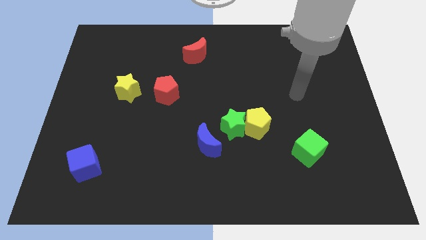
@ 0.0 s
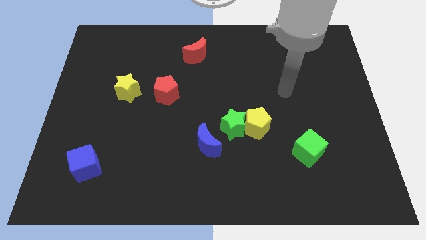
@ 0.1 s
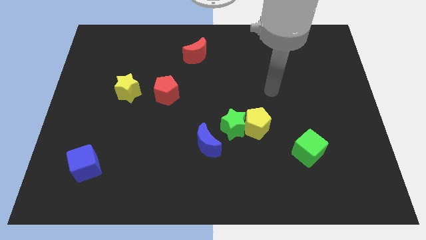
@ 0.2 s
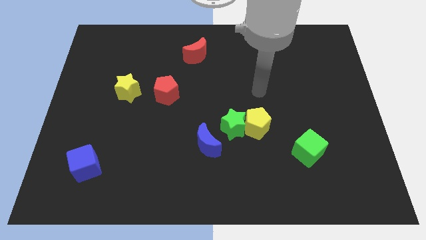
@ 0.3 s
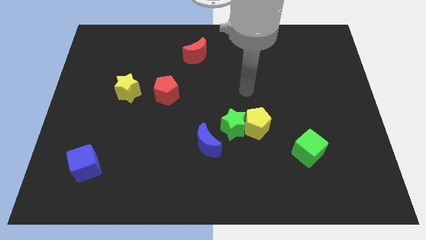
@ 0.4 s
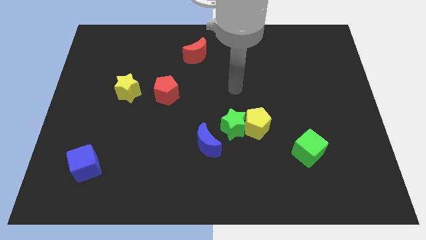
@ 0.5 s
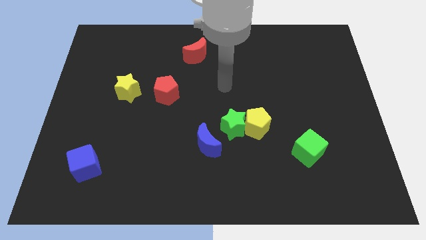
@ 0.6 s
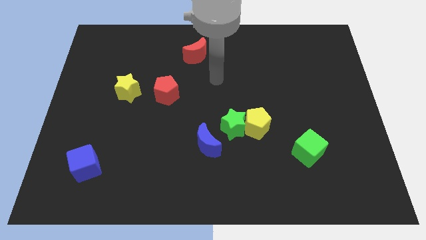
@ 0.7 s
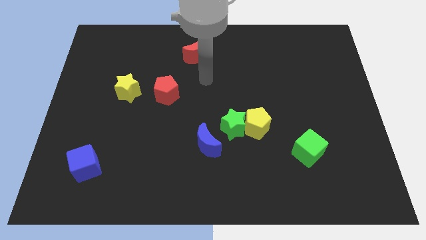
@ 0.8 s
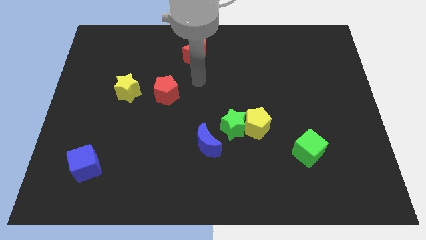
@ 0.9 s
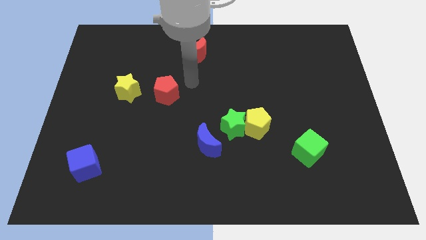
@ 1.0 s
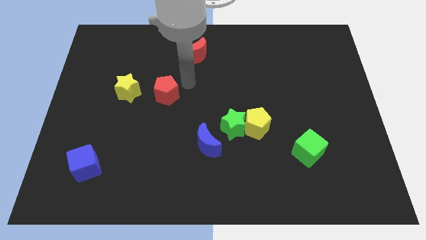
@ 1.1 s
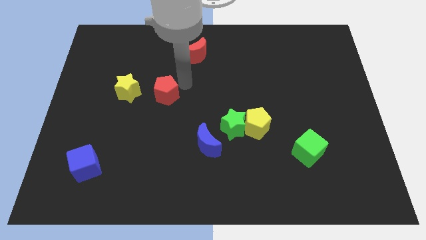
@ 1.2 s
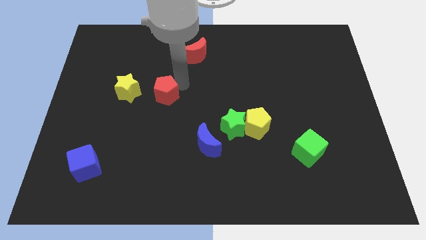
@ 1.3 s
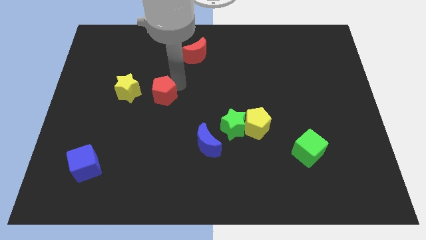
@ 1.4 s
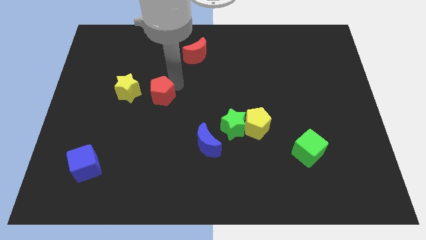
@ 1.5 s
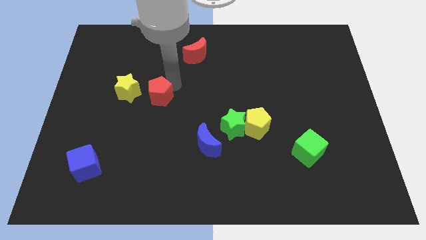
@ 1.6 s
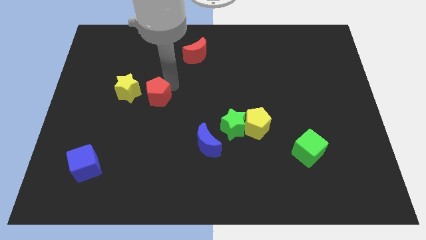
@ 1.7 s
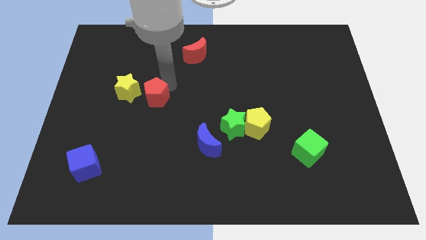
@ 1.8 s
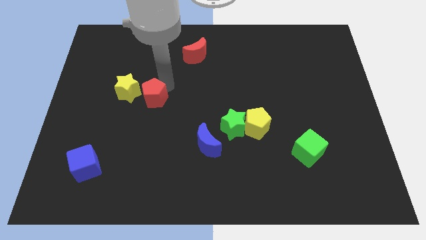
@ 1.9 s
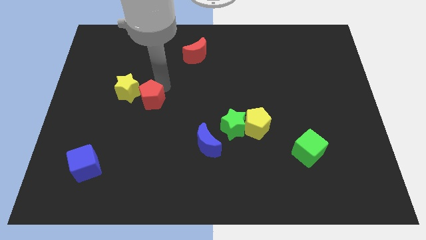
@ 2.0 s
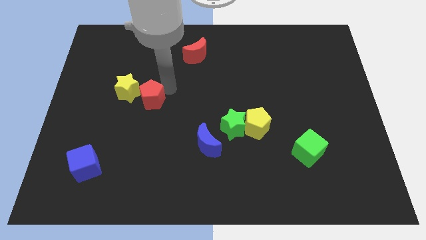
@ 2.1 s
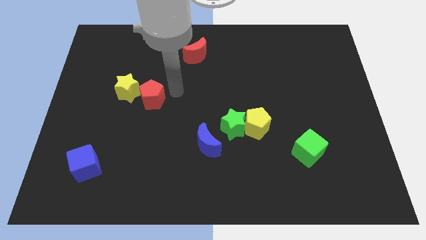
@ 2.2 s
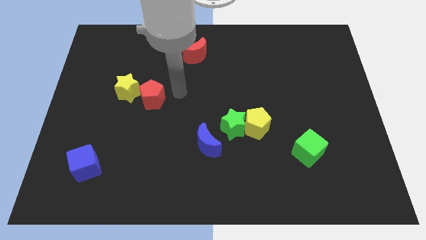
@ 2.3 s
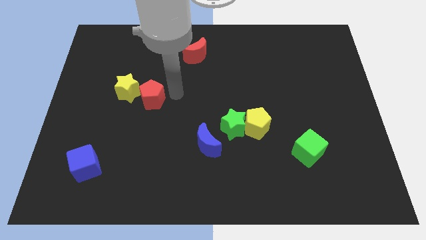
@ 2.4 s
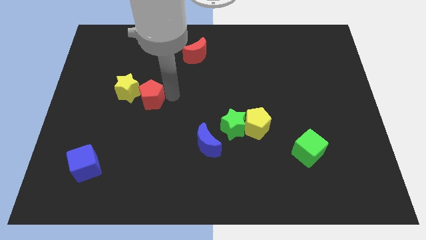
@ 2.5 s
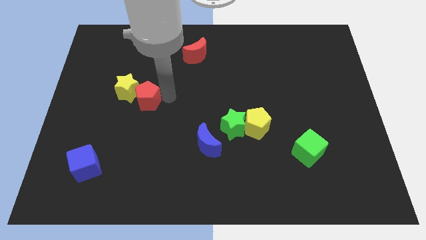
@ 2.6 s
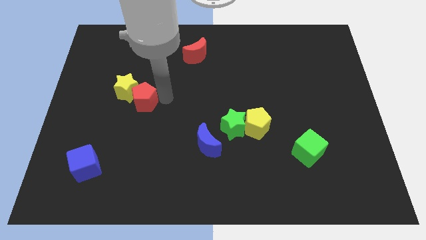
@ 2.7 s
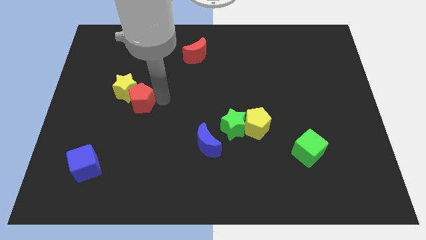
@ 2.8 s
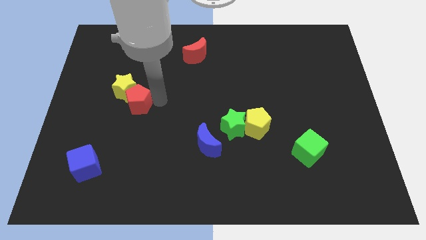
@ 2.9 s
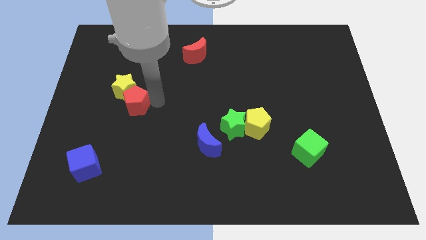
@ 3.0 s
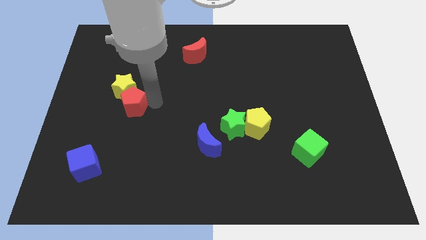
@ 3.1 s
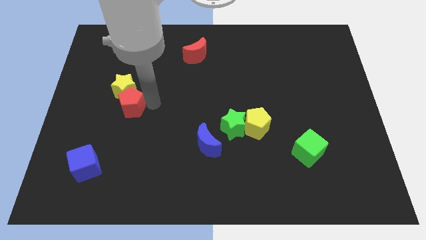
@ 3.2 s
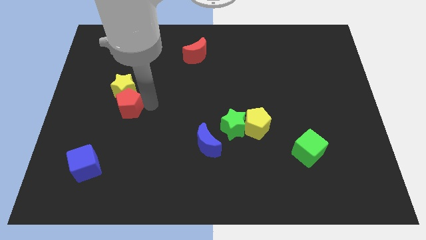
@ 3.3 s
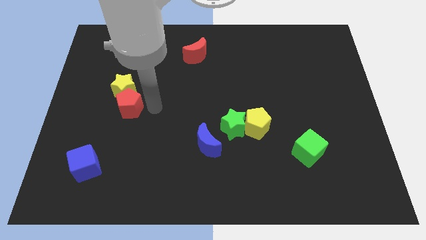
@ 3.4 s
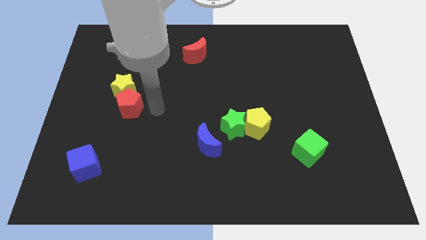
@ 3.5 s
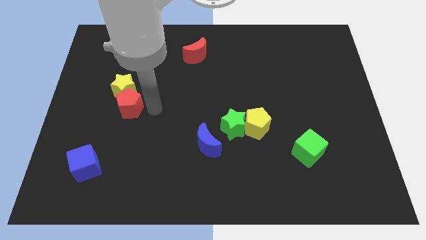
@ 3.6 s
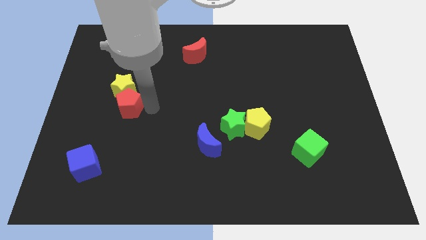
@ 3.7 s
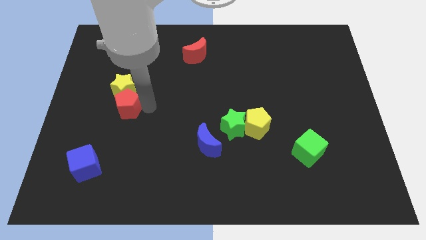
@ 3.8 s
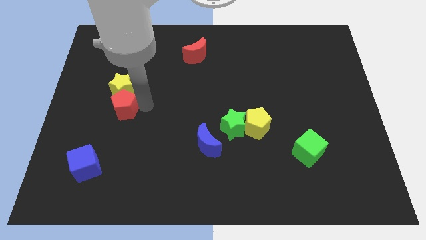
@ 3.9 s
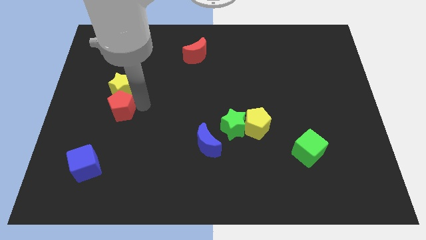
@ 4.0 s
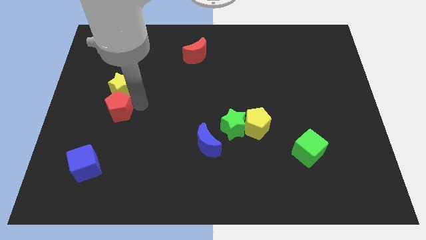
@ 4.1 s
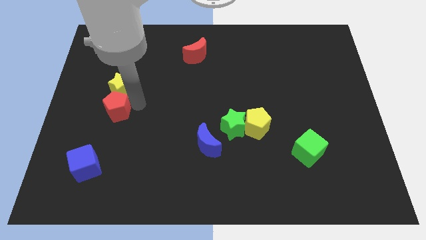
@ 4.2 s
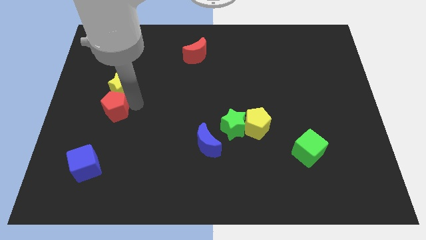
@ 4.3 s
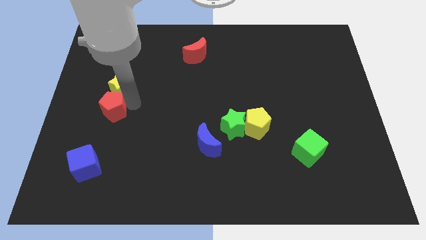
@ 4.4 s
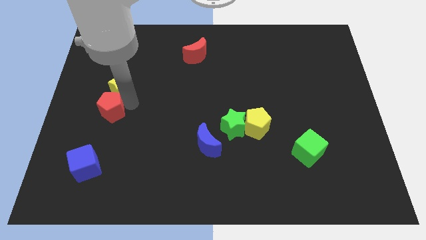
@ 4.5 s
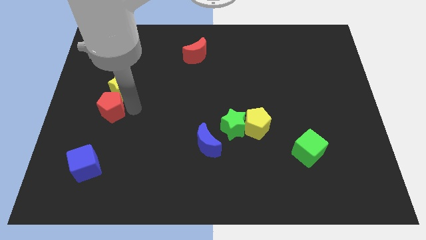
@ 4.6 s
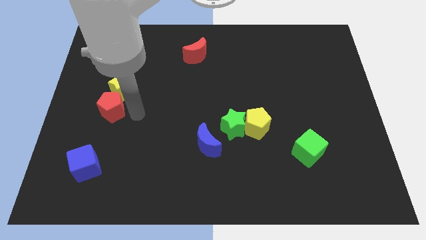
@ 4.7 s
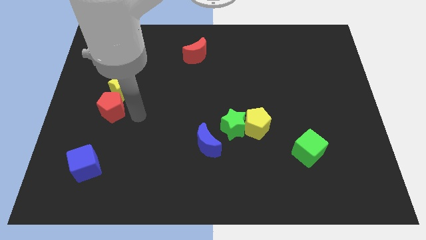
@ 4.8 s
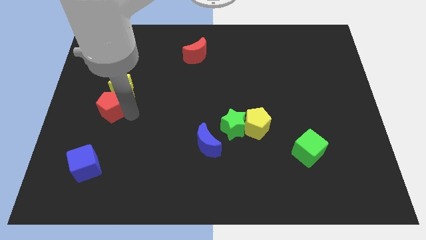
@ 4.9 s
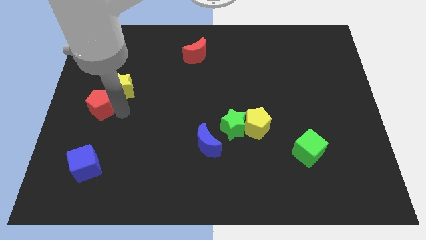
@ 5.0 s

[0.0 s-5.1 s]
put the red pentagon to the left side of the board

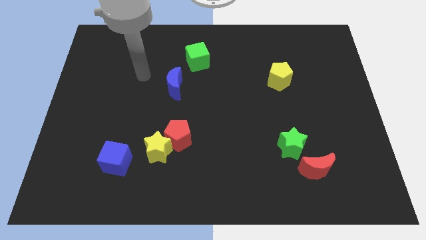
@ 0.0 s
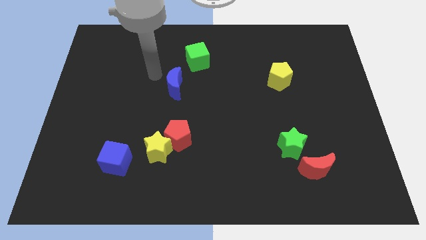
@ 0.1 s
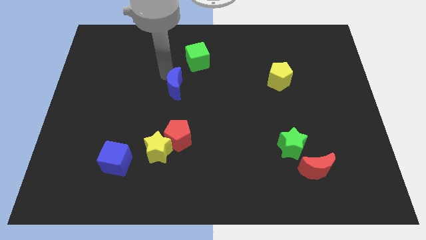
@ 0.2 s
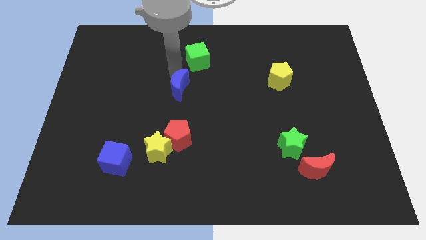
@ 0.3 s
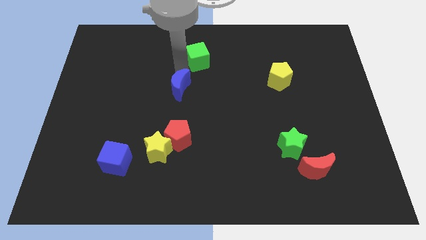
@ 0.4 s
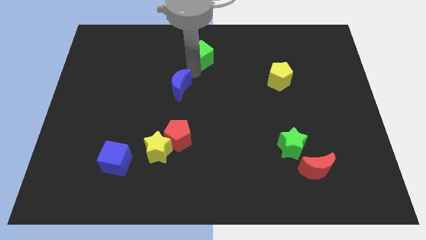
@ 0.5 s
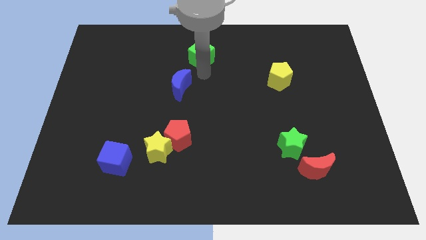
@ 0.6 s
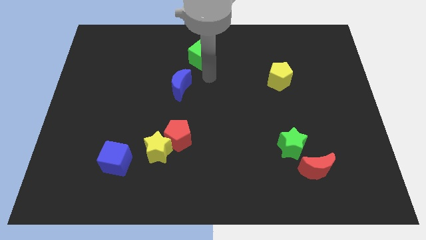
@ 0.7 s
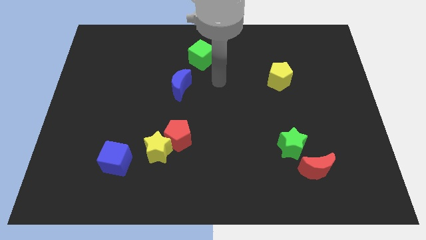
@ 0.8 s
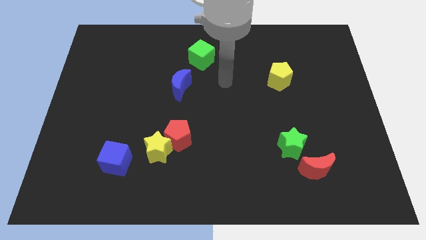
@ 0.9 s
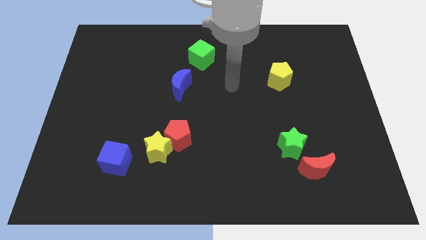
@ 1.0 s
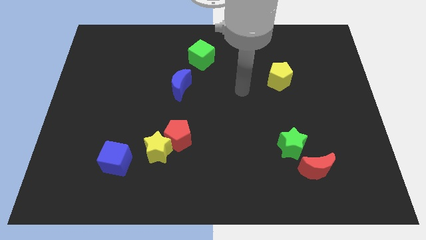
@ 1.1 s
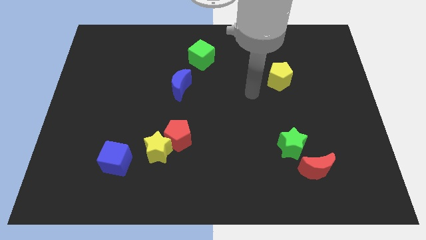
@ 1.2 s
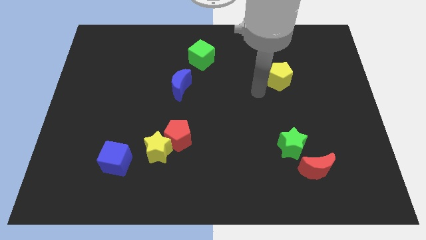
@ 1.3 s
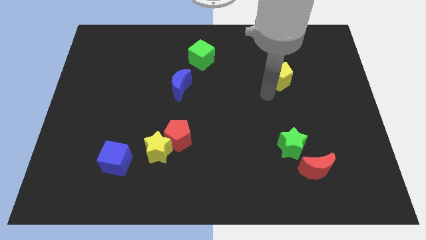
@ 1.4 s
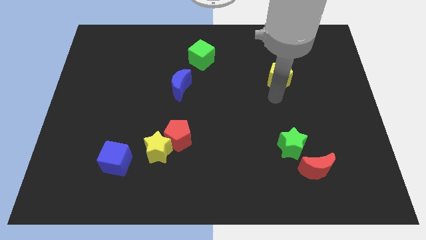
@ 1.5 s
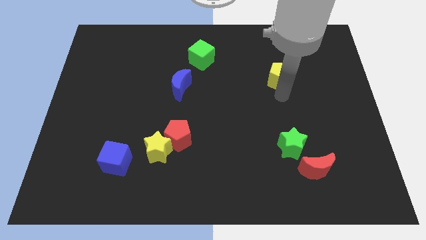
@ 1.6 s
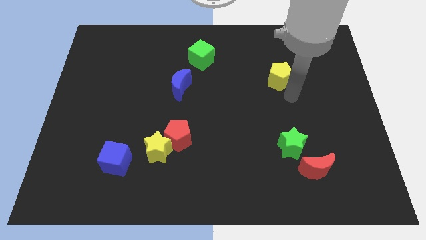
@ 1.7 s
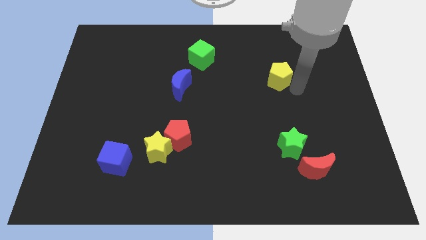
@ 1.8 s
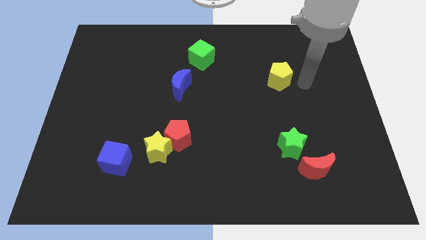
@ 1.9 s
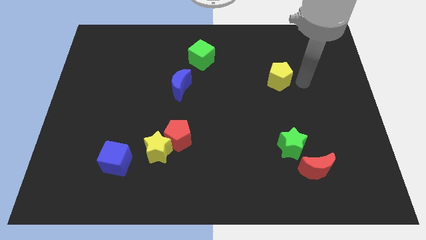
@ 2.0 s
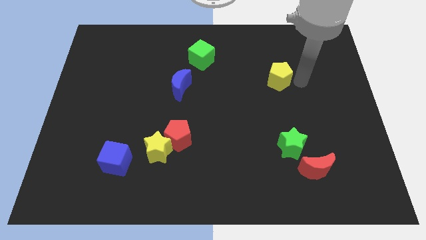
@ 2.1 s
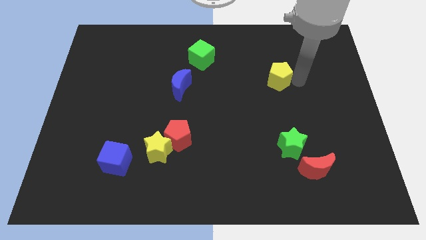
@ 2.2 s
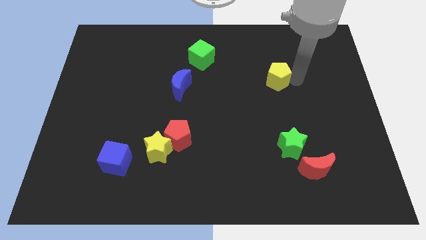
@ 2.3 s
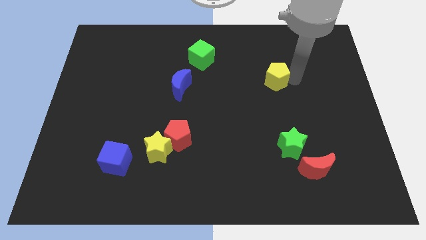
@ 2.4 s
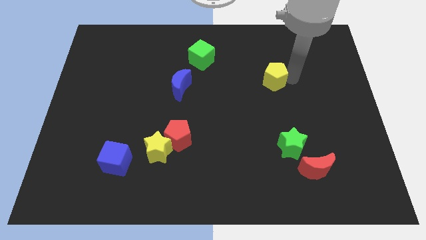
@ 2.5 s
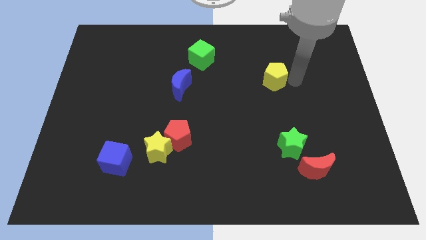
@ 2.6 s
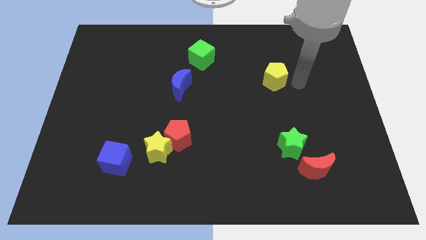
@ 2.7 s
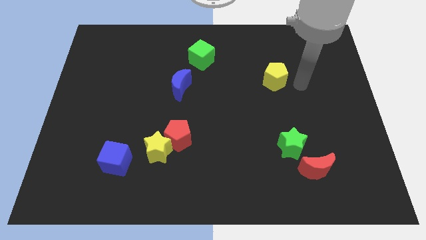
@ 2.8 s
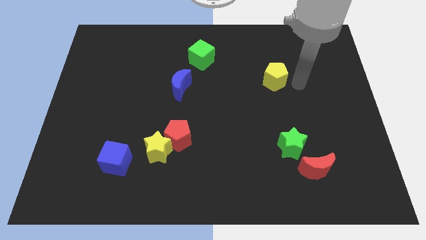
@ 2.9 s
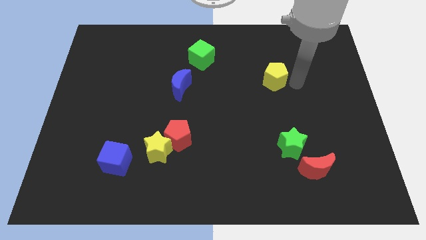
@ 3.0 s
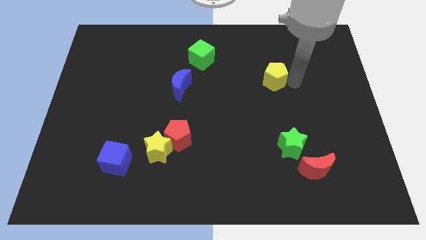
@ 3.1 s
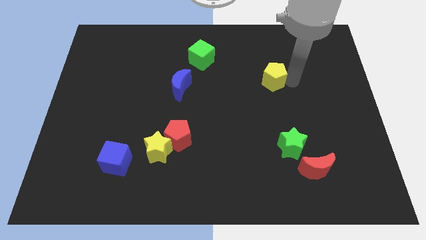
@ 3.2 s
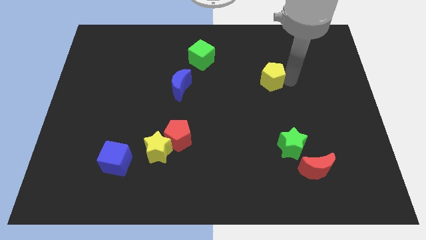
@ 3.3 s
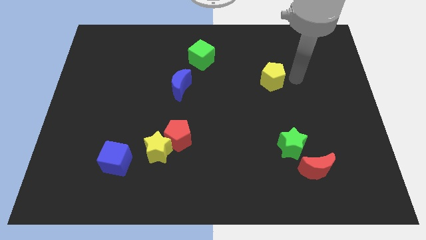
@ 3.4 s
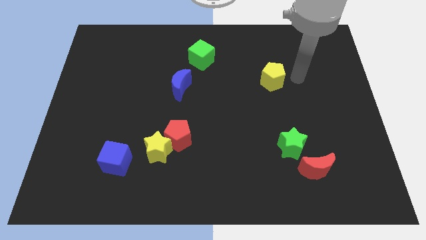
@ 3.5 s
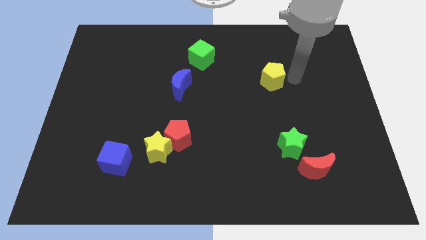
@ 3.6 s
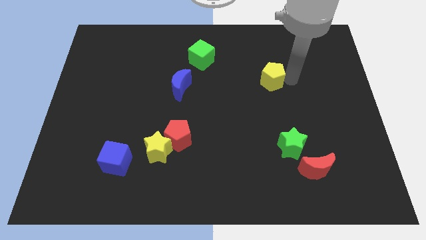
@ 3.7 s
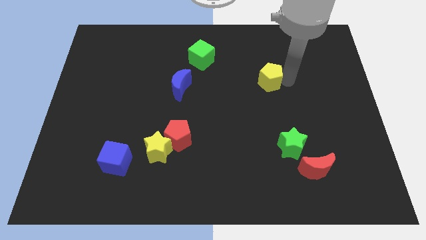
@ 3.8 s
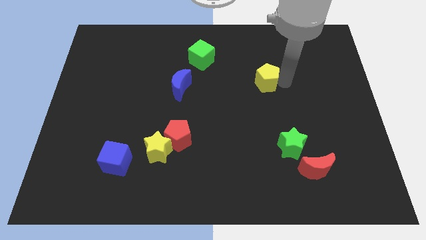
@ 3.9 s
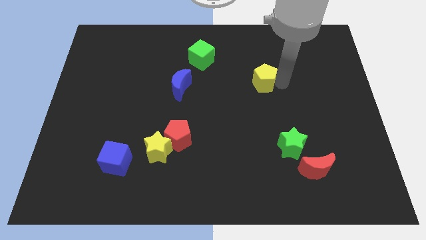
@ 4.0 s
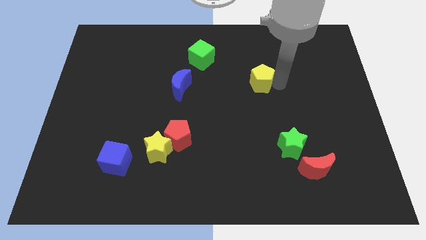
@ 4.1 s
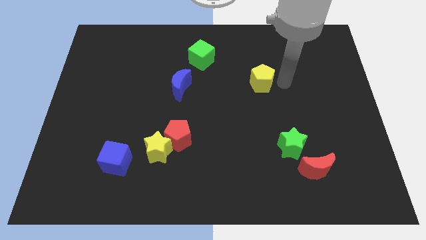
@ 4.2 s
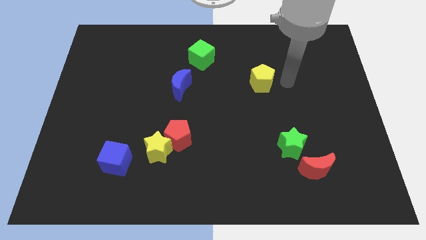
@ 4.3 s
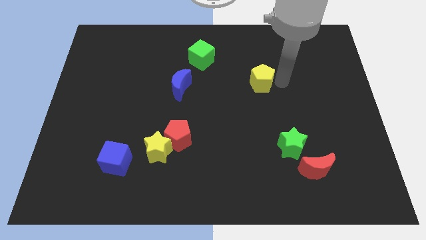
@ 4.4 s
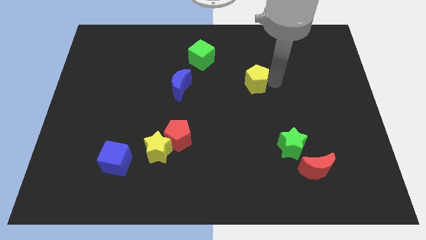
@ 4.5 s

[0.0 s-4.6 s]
push the yellow pentagon to the center of the board
